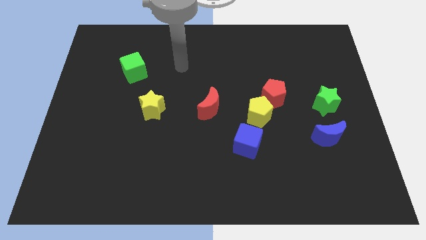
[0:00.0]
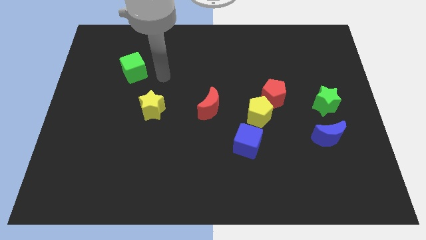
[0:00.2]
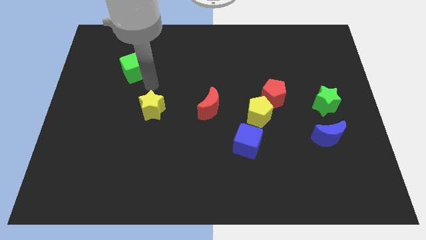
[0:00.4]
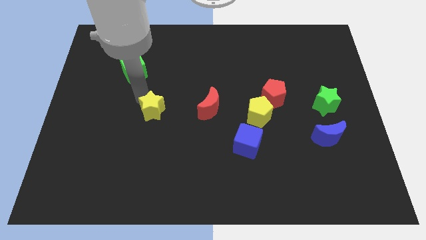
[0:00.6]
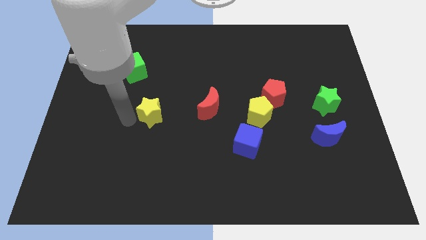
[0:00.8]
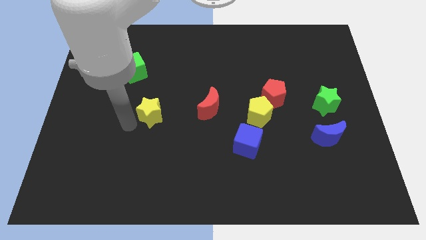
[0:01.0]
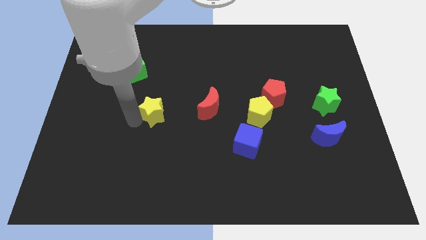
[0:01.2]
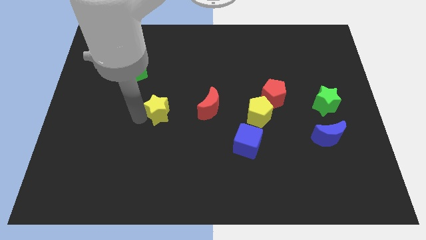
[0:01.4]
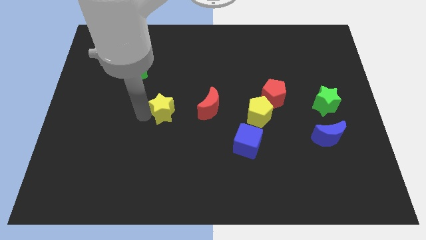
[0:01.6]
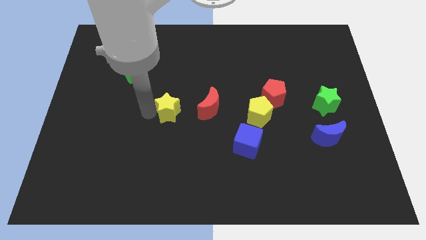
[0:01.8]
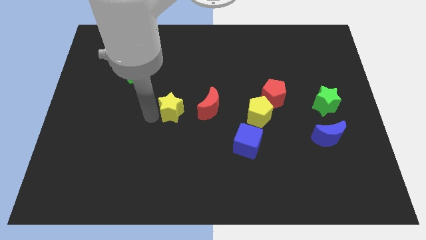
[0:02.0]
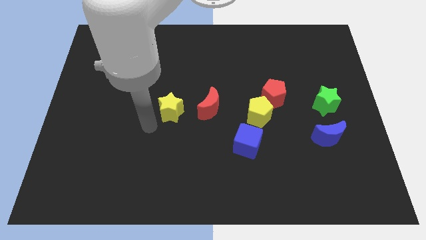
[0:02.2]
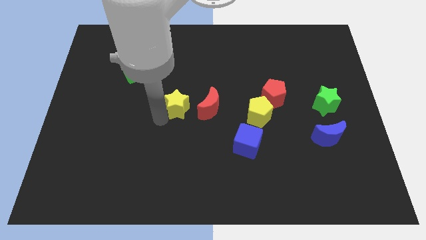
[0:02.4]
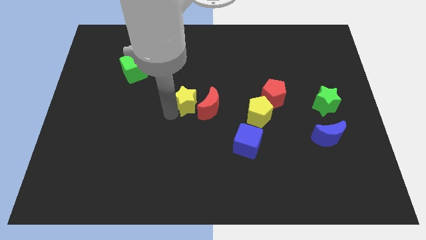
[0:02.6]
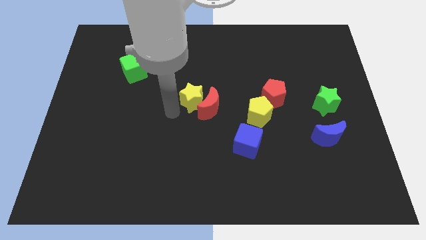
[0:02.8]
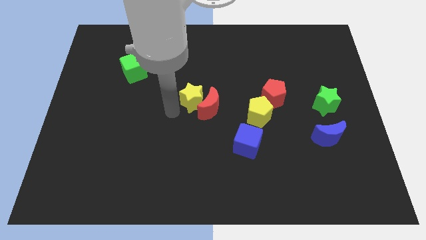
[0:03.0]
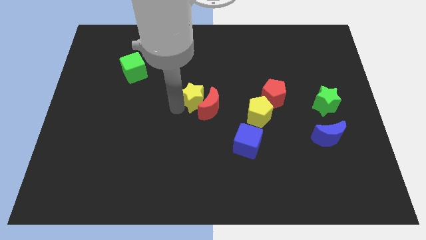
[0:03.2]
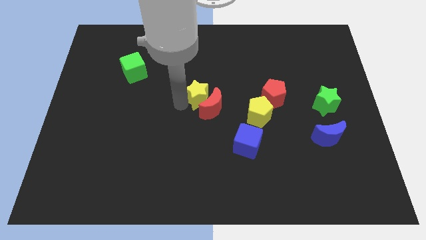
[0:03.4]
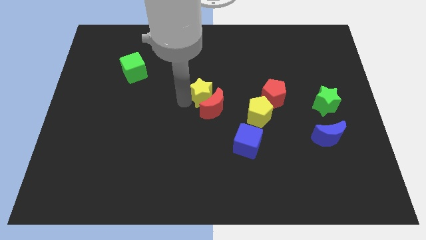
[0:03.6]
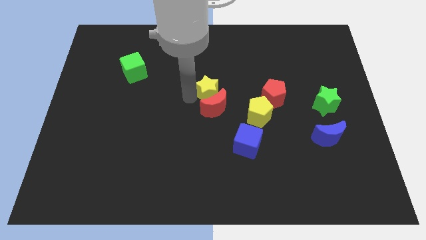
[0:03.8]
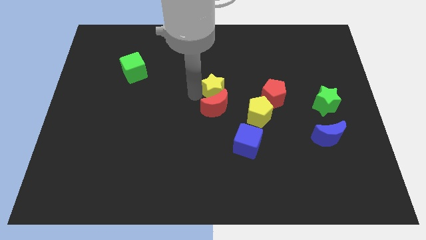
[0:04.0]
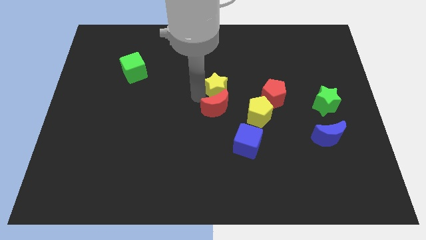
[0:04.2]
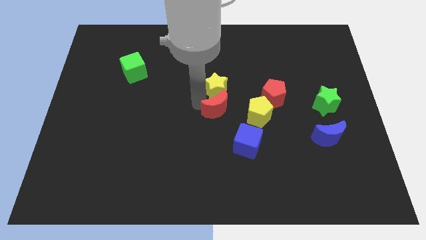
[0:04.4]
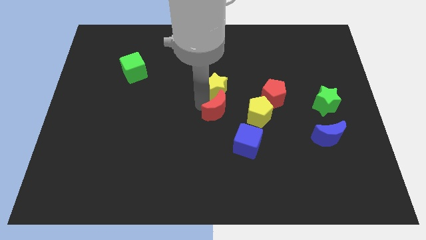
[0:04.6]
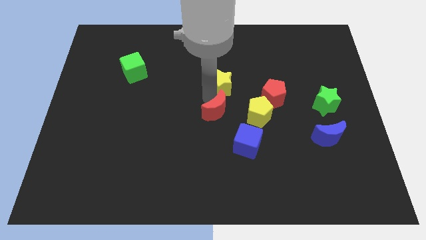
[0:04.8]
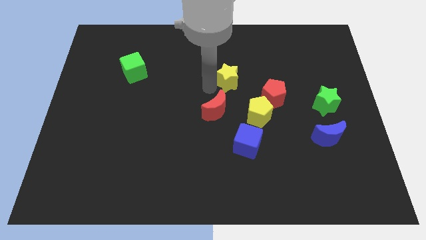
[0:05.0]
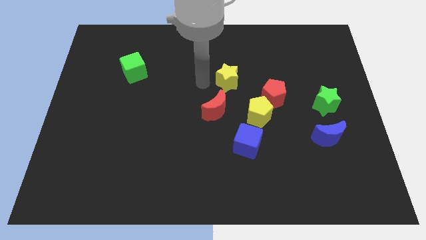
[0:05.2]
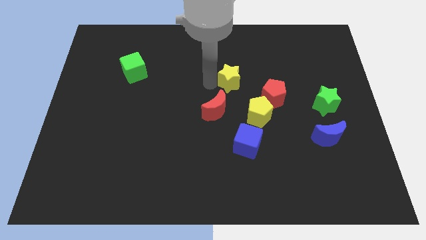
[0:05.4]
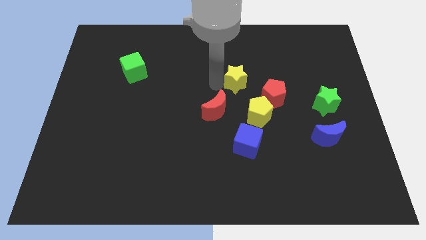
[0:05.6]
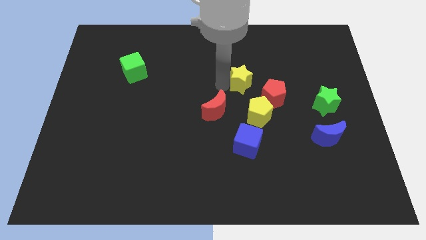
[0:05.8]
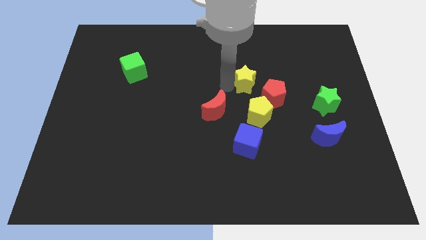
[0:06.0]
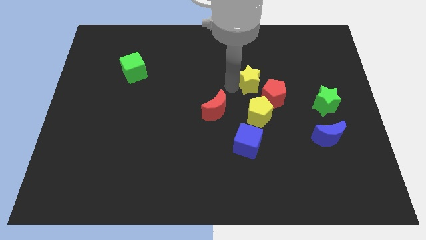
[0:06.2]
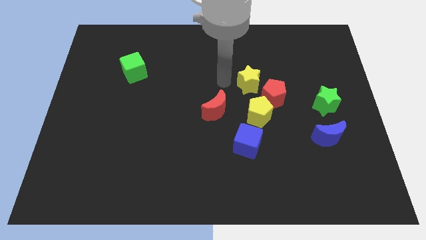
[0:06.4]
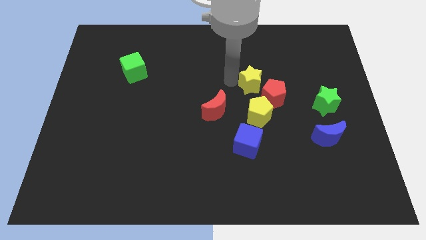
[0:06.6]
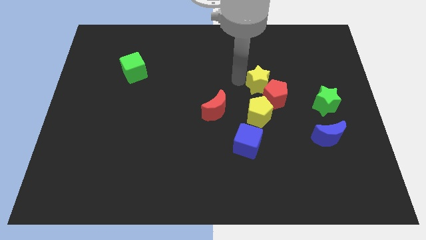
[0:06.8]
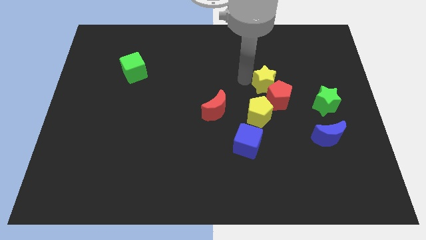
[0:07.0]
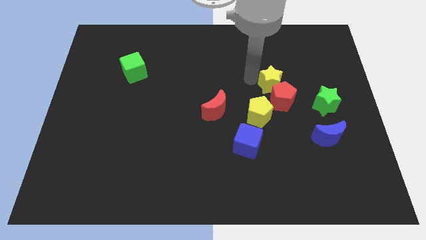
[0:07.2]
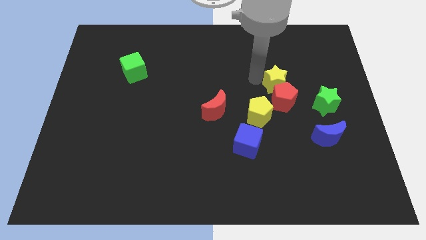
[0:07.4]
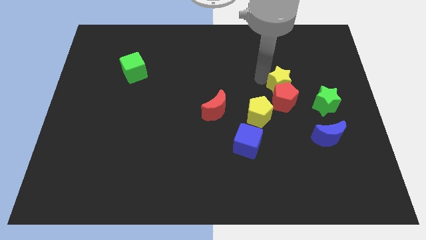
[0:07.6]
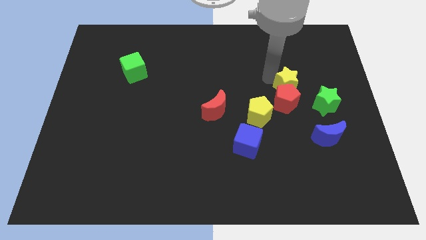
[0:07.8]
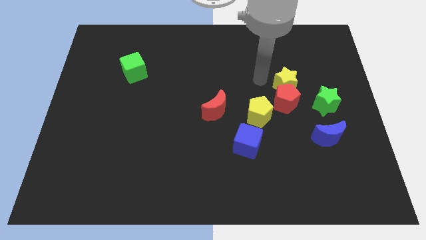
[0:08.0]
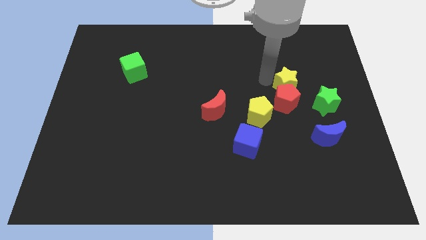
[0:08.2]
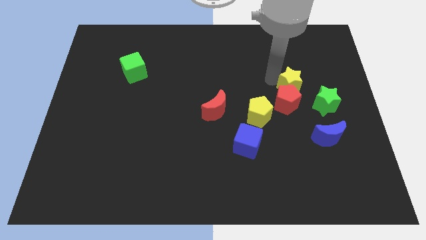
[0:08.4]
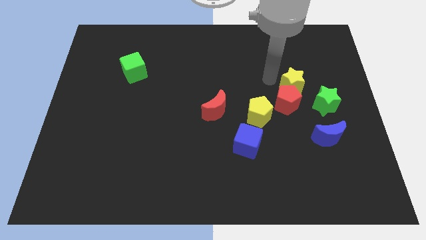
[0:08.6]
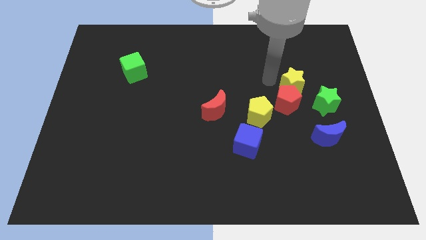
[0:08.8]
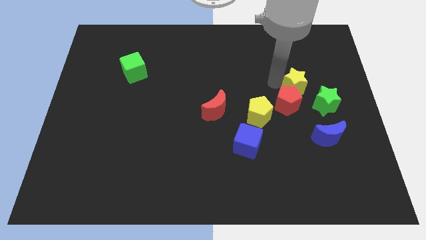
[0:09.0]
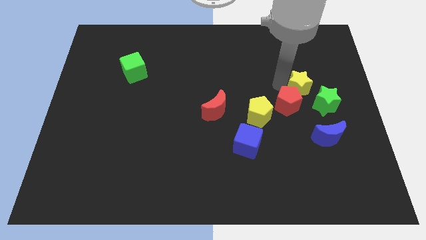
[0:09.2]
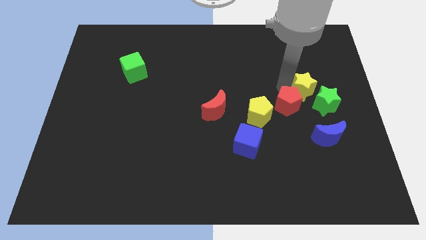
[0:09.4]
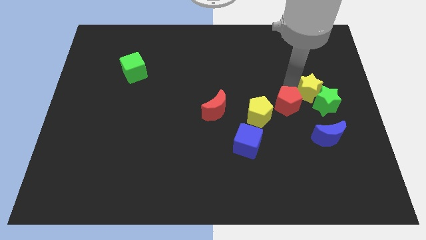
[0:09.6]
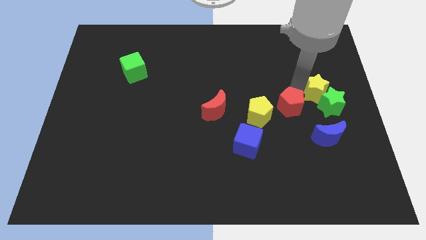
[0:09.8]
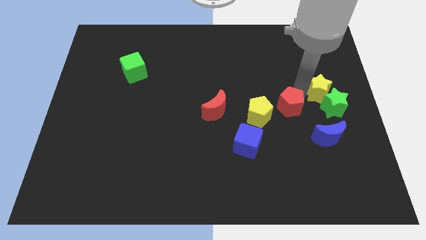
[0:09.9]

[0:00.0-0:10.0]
put the yellow star to the right side of the board

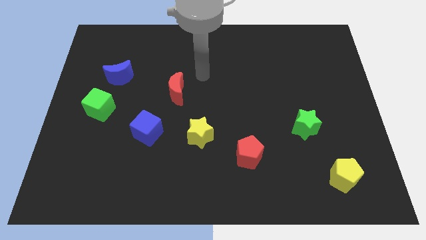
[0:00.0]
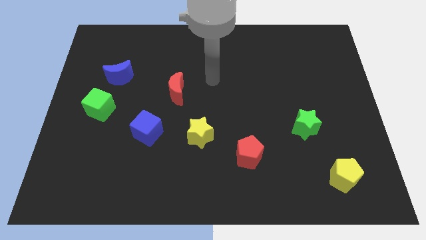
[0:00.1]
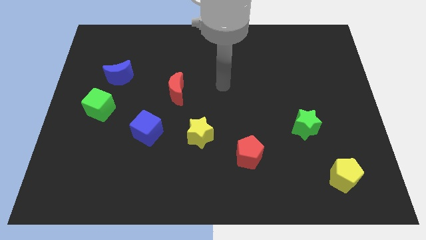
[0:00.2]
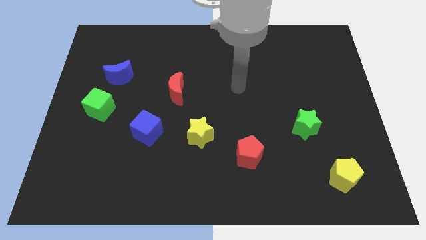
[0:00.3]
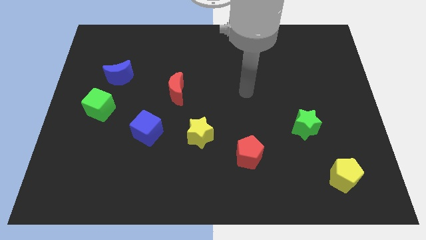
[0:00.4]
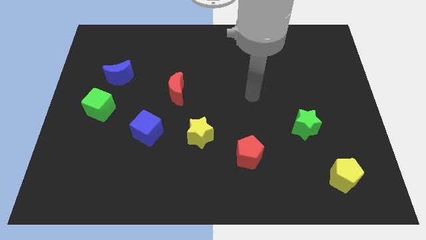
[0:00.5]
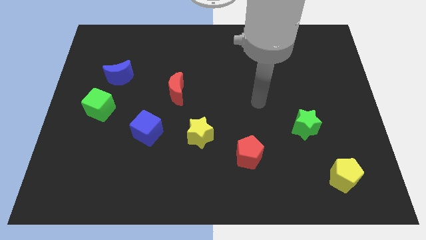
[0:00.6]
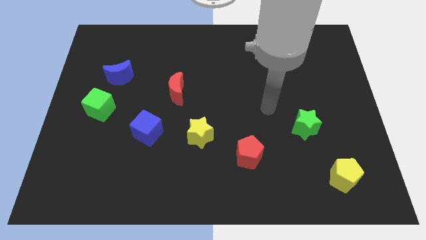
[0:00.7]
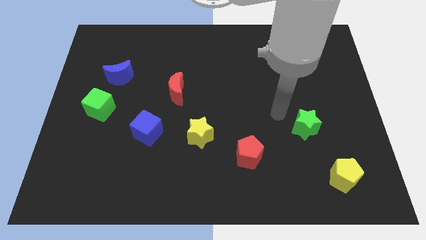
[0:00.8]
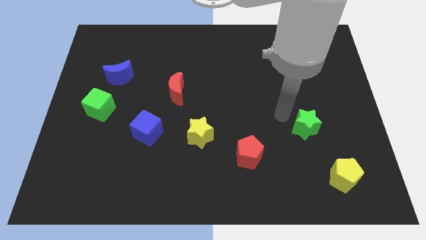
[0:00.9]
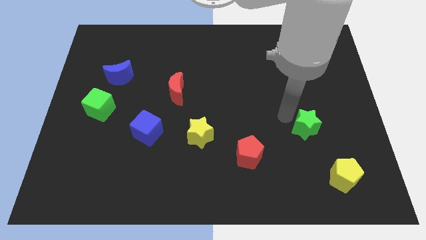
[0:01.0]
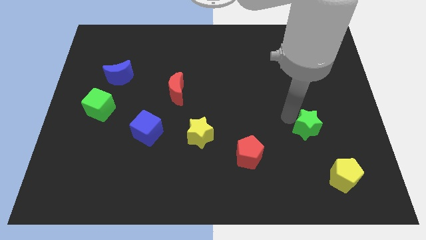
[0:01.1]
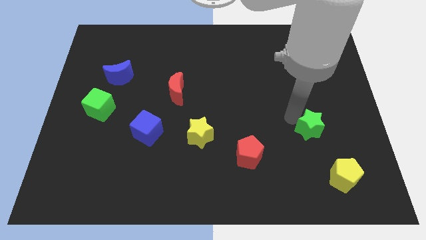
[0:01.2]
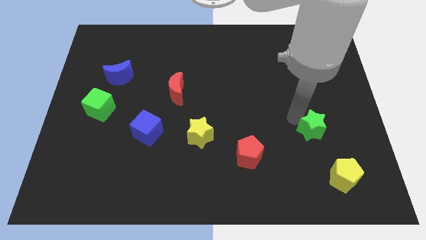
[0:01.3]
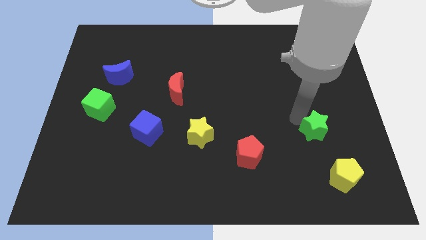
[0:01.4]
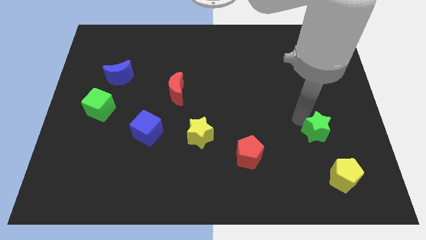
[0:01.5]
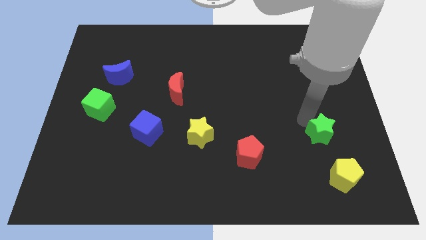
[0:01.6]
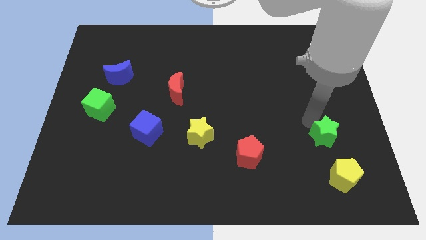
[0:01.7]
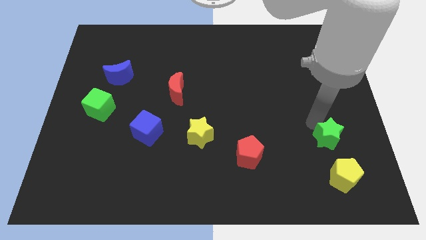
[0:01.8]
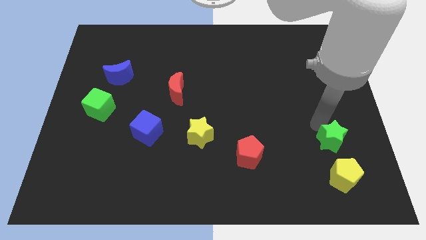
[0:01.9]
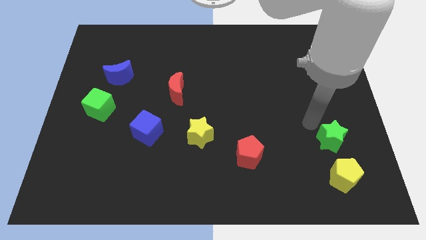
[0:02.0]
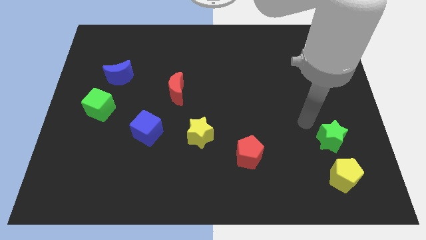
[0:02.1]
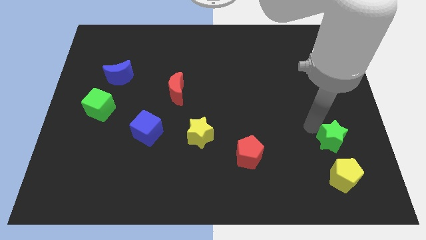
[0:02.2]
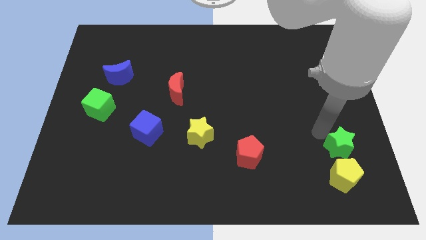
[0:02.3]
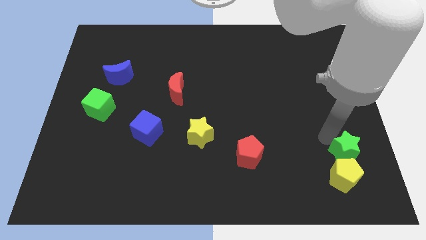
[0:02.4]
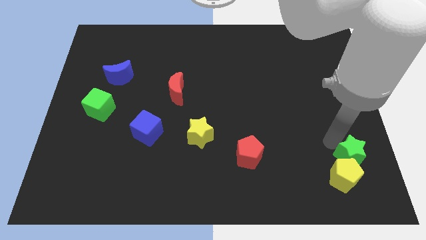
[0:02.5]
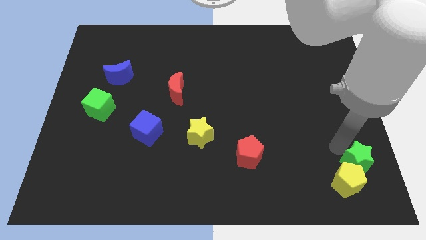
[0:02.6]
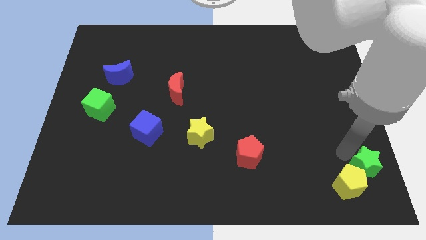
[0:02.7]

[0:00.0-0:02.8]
push the green star to the bottom right of the board
